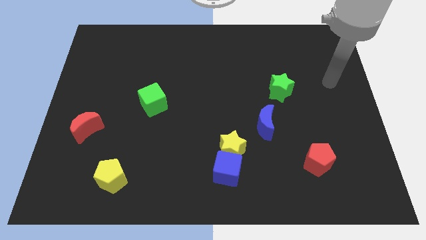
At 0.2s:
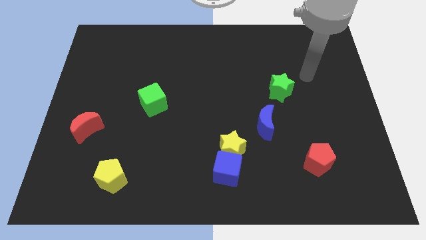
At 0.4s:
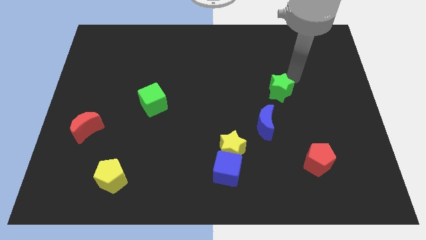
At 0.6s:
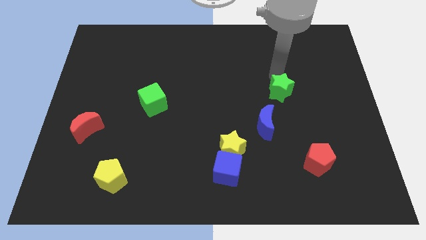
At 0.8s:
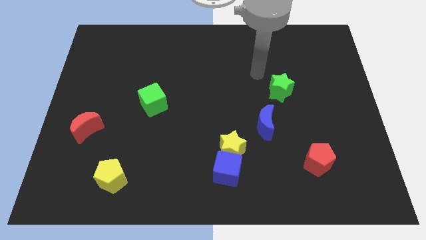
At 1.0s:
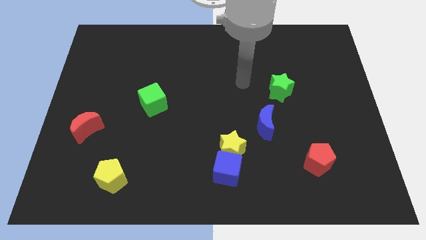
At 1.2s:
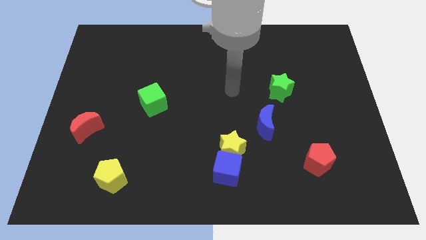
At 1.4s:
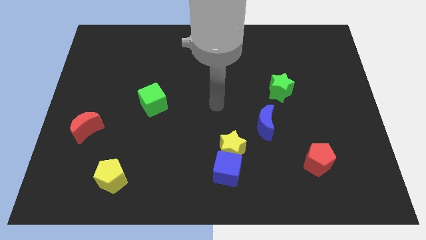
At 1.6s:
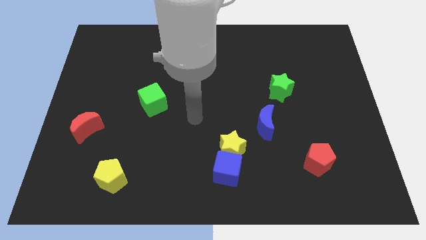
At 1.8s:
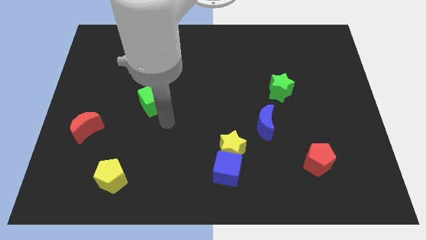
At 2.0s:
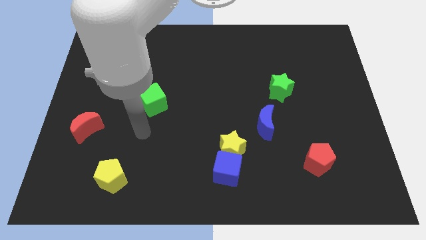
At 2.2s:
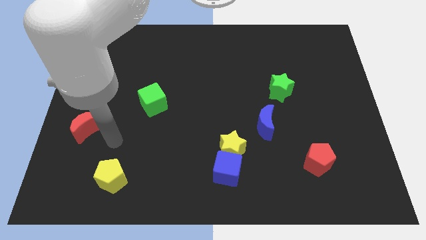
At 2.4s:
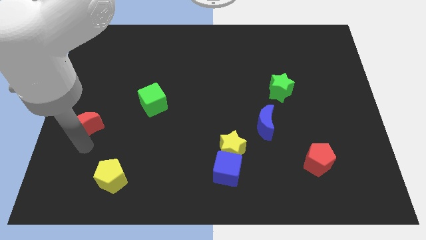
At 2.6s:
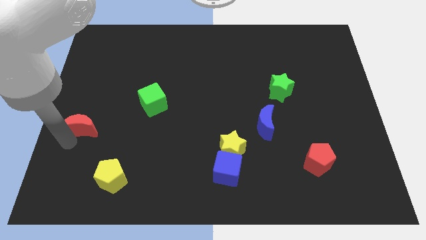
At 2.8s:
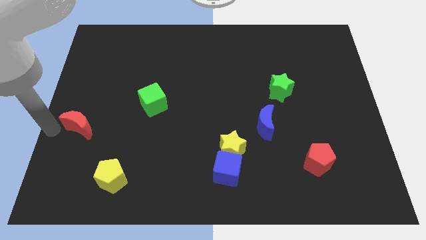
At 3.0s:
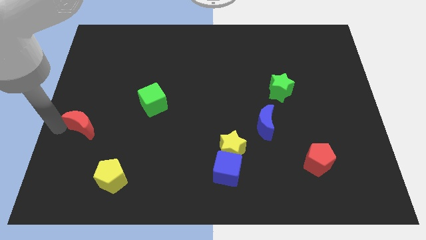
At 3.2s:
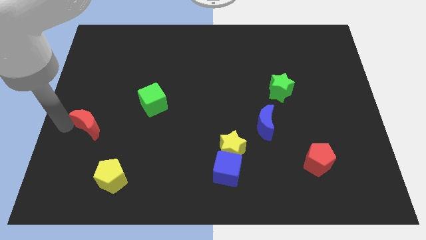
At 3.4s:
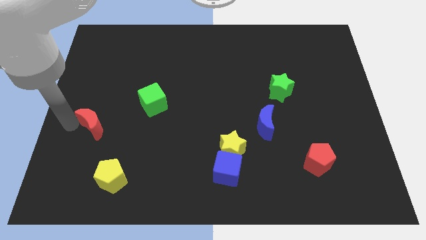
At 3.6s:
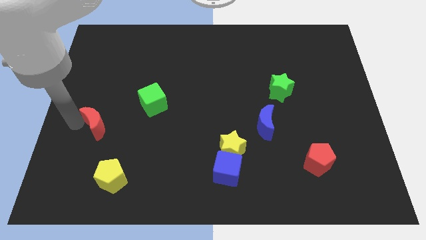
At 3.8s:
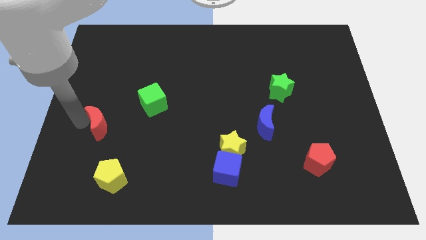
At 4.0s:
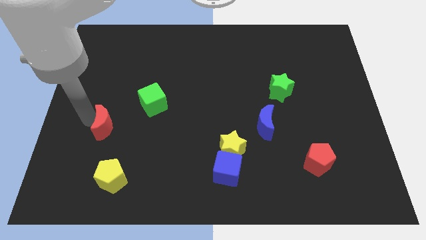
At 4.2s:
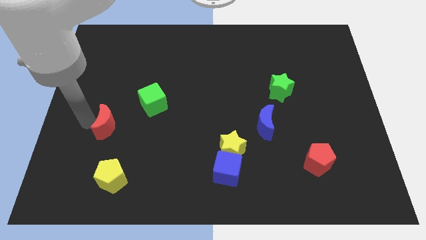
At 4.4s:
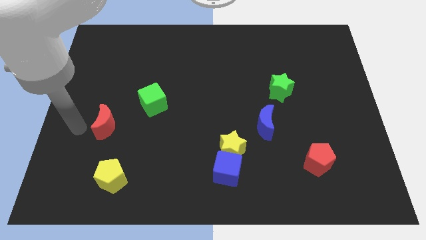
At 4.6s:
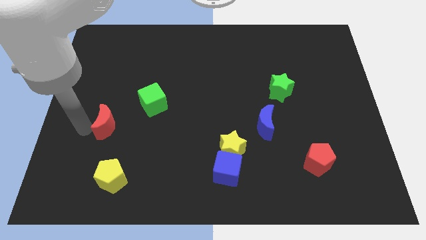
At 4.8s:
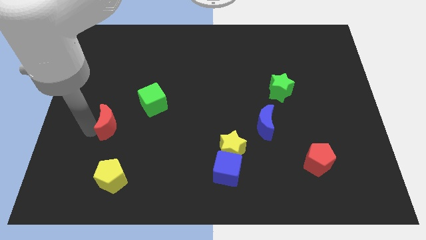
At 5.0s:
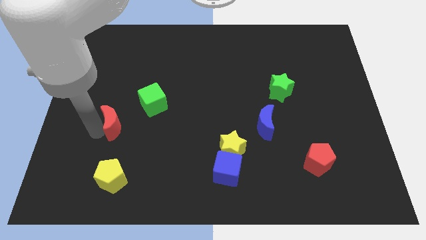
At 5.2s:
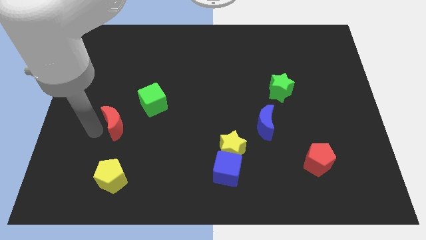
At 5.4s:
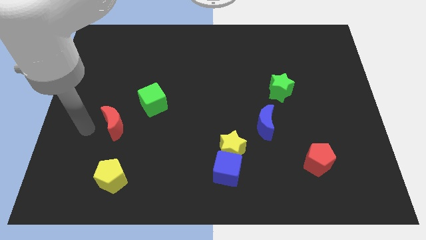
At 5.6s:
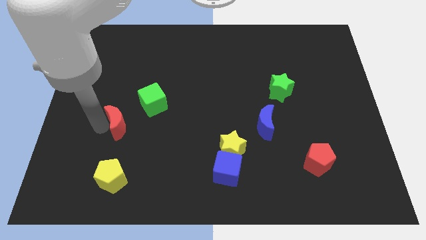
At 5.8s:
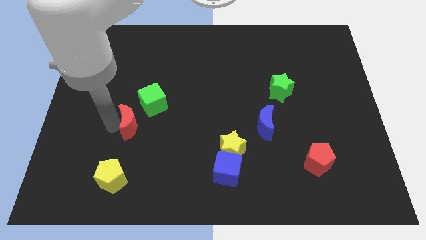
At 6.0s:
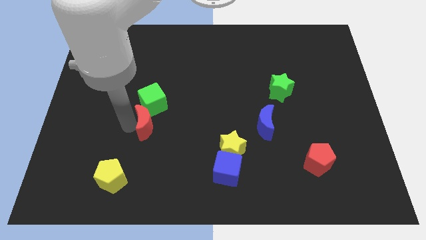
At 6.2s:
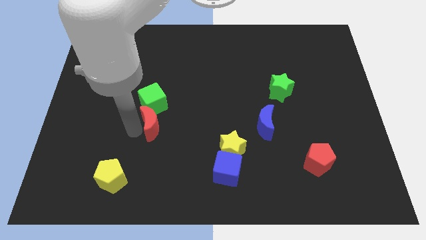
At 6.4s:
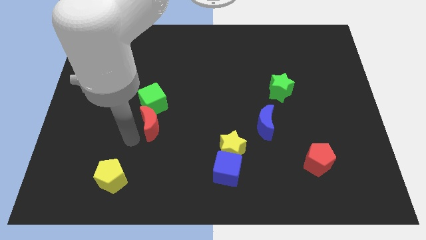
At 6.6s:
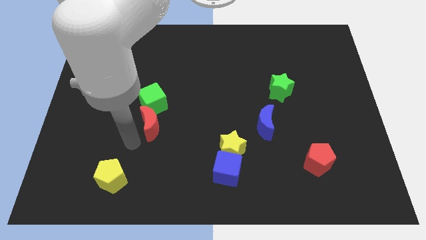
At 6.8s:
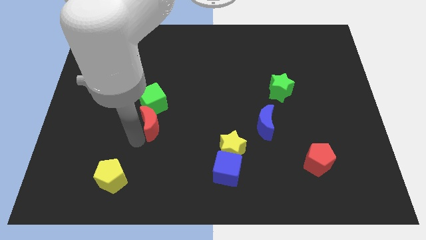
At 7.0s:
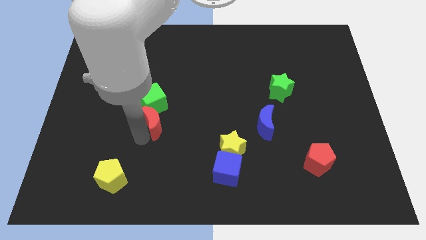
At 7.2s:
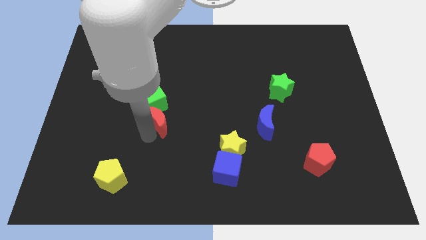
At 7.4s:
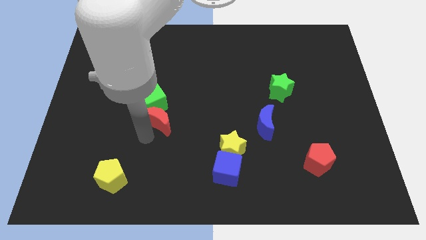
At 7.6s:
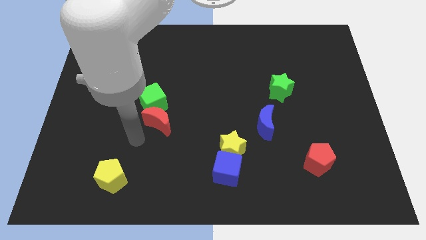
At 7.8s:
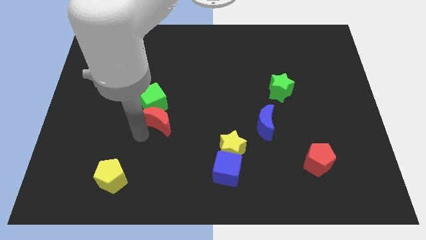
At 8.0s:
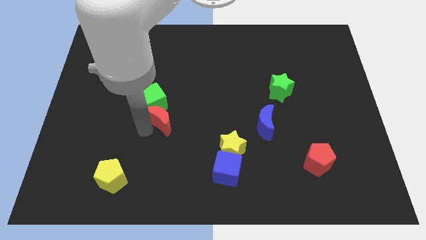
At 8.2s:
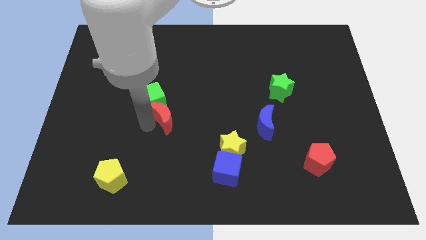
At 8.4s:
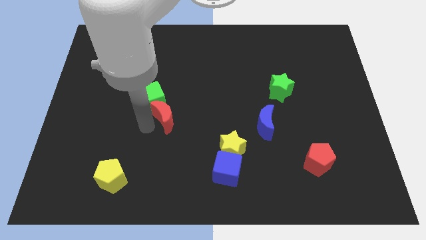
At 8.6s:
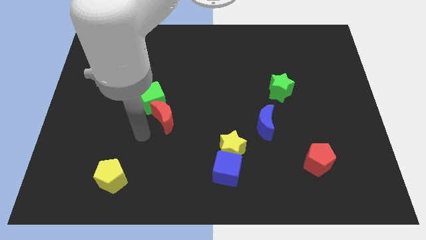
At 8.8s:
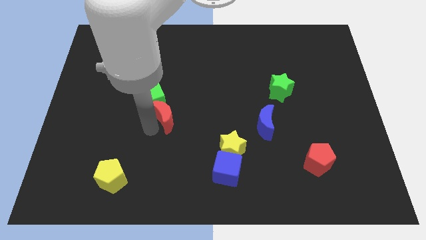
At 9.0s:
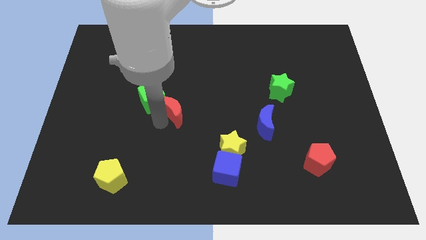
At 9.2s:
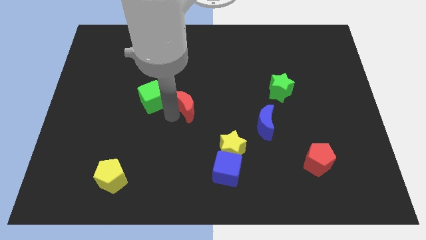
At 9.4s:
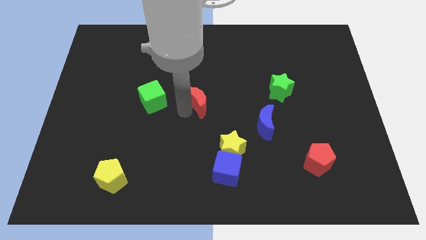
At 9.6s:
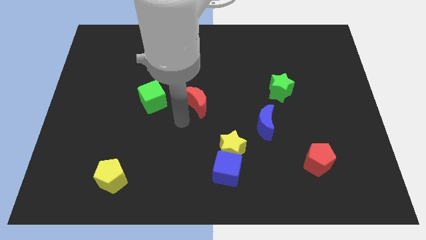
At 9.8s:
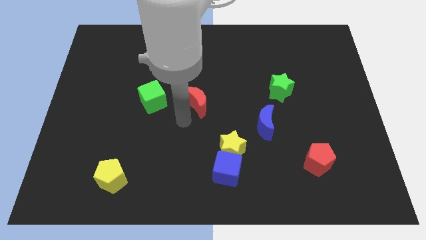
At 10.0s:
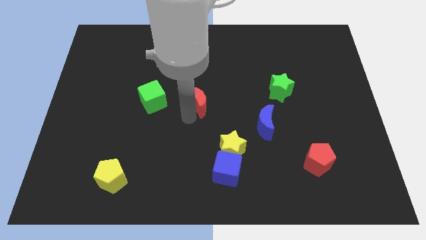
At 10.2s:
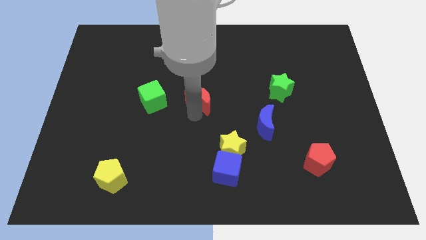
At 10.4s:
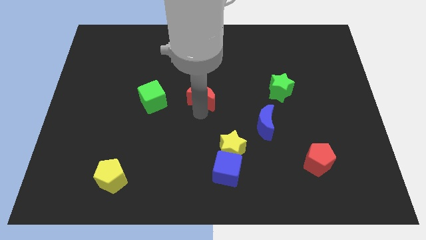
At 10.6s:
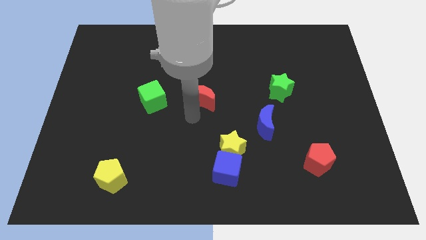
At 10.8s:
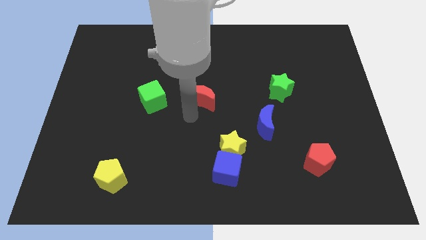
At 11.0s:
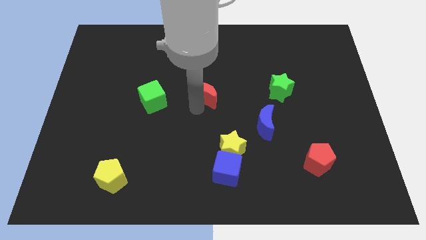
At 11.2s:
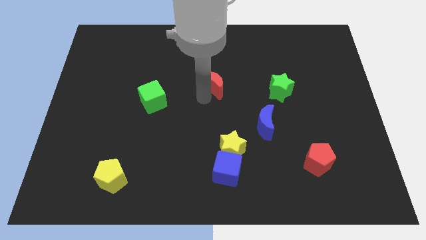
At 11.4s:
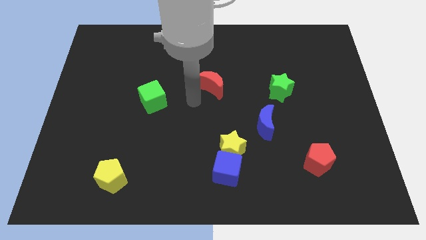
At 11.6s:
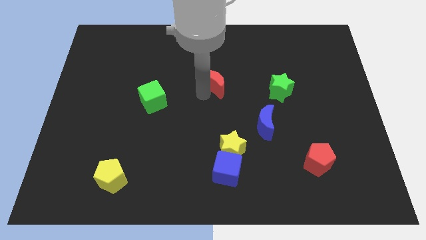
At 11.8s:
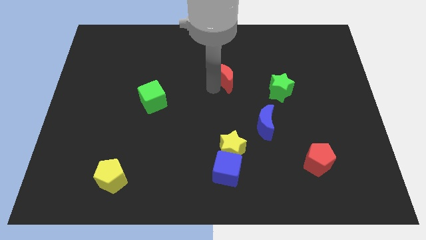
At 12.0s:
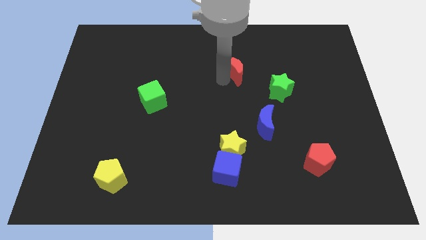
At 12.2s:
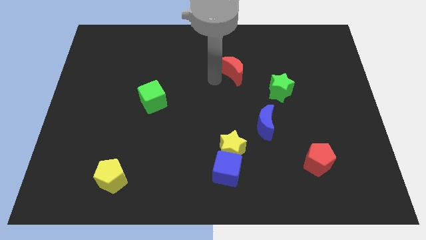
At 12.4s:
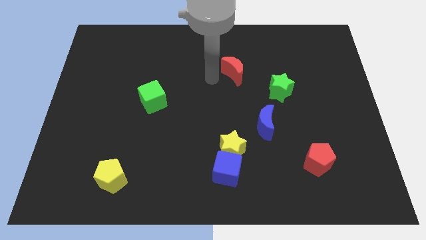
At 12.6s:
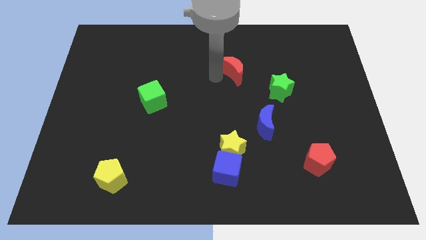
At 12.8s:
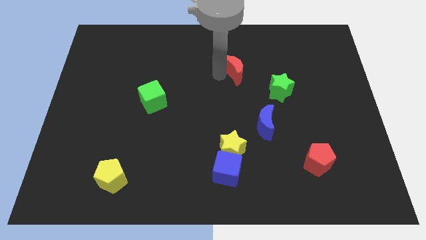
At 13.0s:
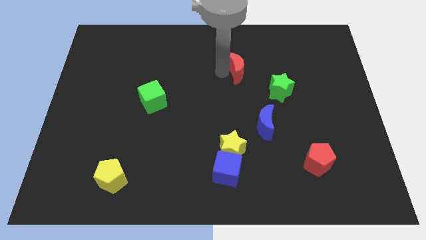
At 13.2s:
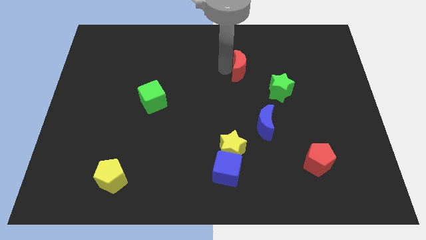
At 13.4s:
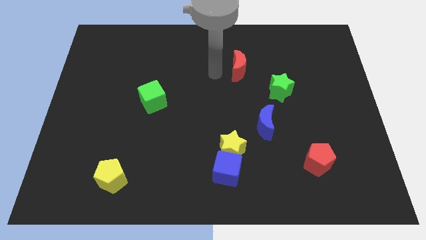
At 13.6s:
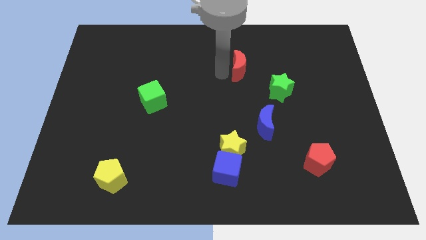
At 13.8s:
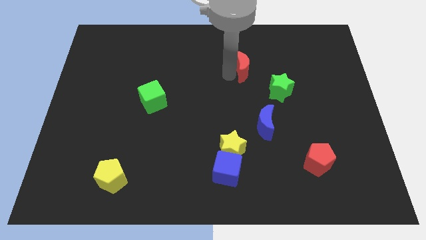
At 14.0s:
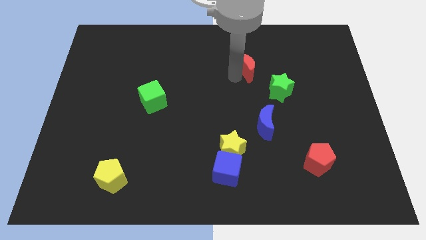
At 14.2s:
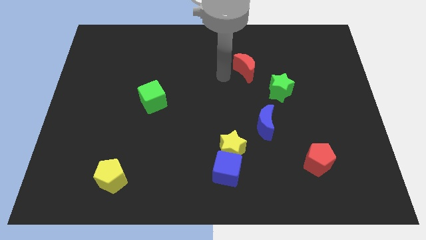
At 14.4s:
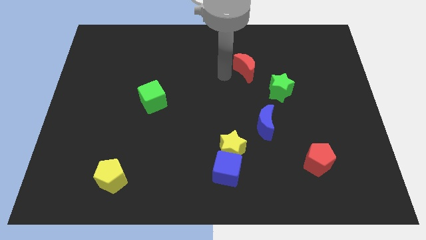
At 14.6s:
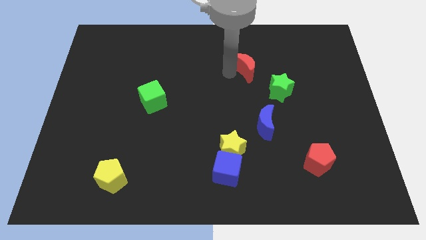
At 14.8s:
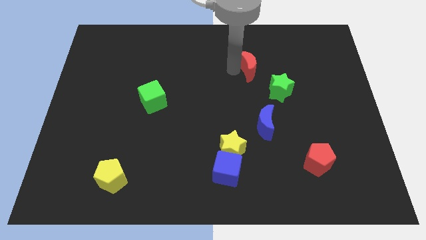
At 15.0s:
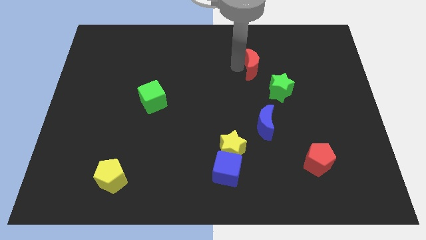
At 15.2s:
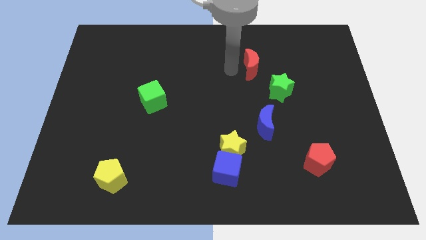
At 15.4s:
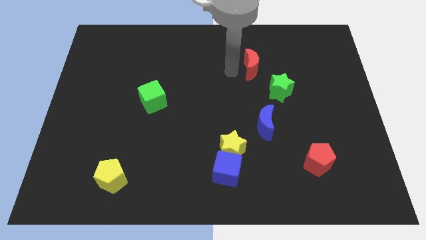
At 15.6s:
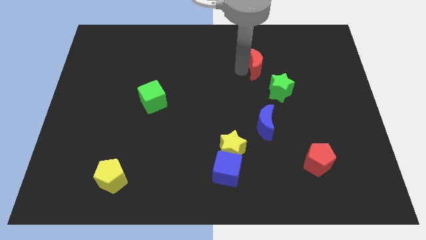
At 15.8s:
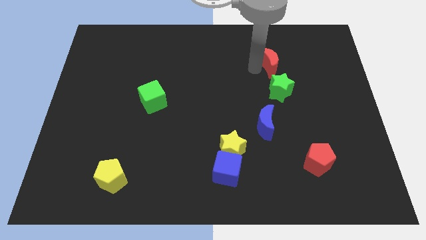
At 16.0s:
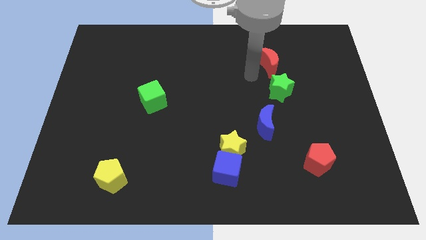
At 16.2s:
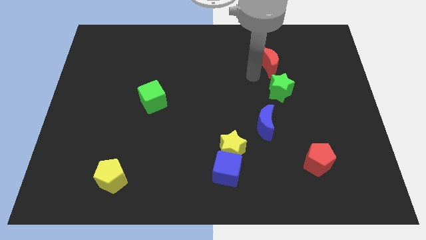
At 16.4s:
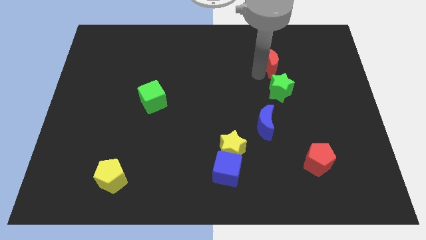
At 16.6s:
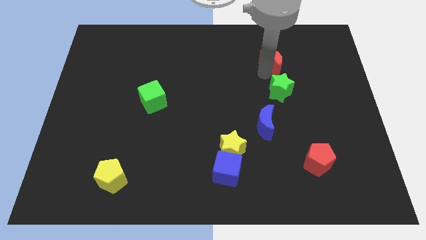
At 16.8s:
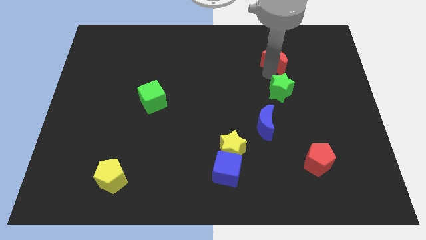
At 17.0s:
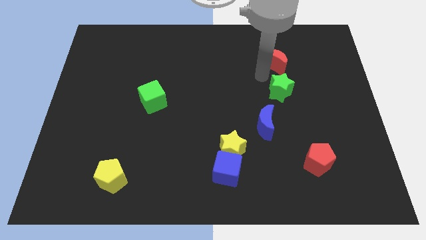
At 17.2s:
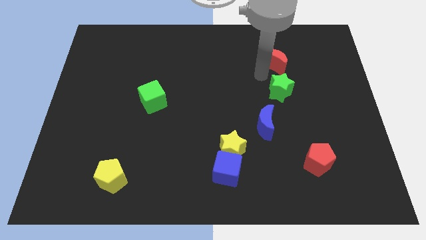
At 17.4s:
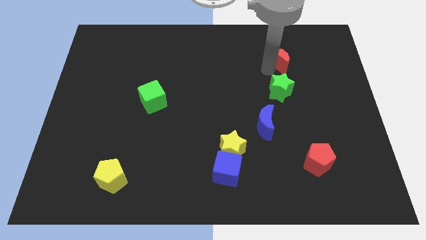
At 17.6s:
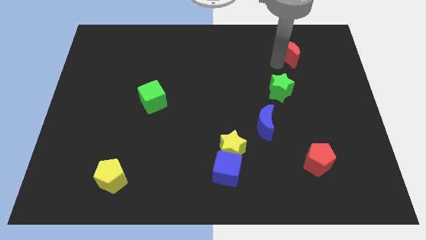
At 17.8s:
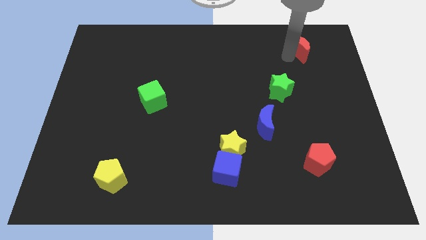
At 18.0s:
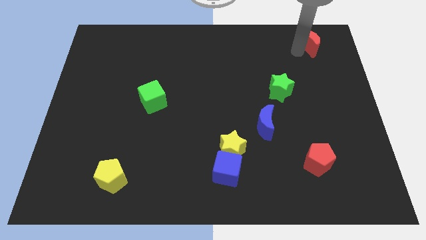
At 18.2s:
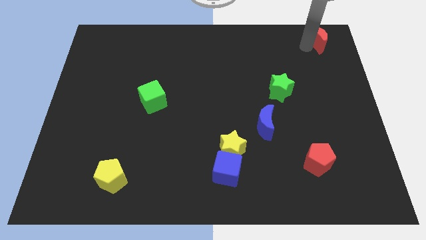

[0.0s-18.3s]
put the red moon to the upper right corner
